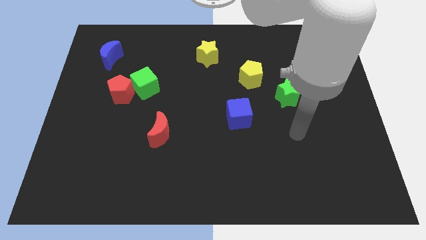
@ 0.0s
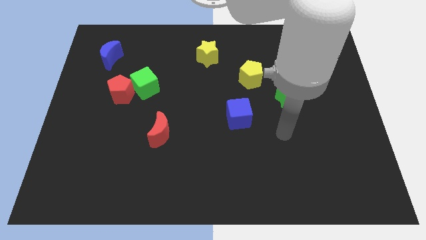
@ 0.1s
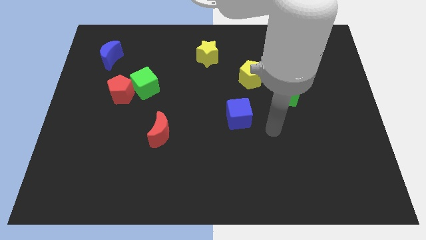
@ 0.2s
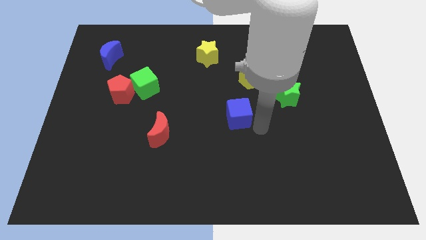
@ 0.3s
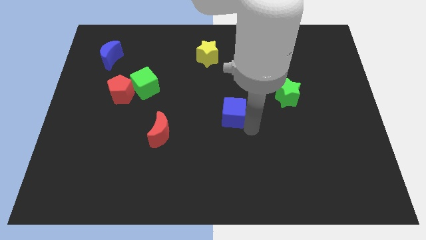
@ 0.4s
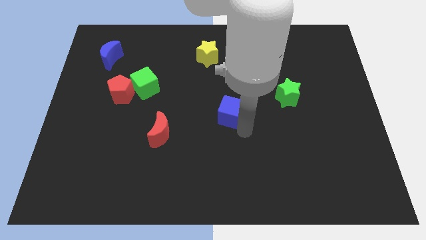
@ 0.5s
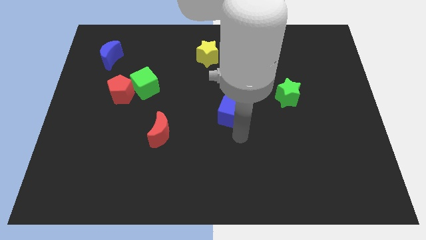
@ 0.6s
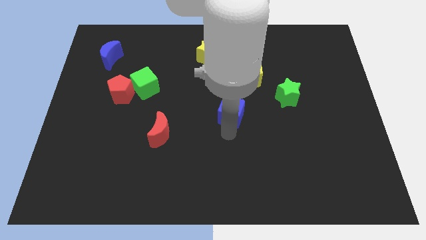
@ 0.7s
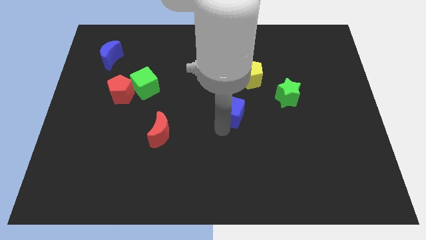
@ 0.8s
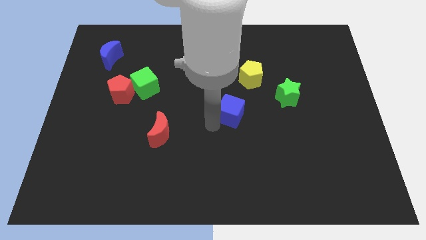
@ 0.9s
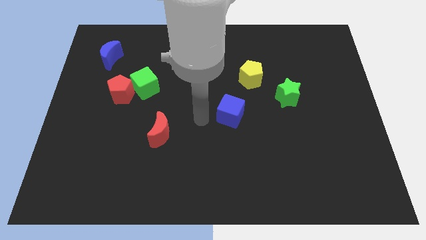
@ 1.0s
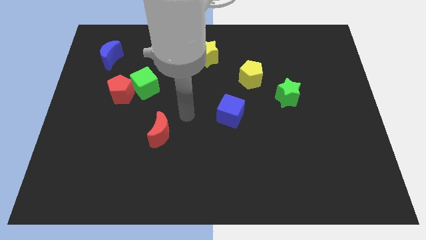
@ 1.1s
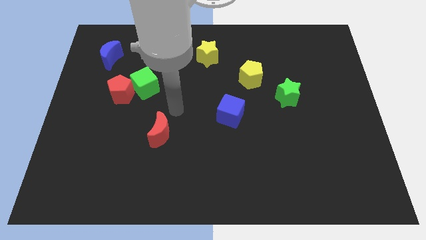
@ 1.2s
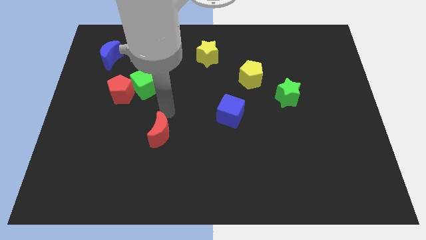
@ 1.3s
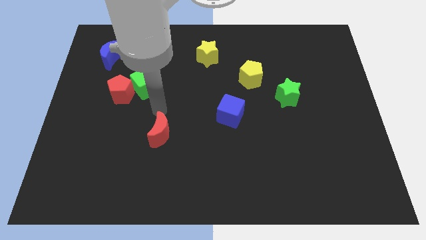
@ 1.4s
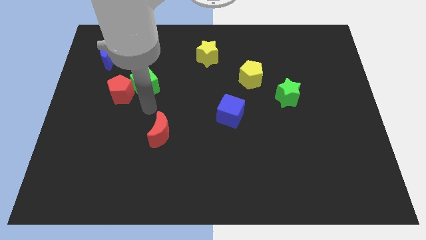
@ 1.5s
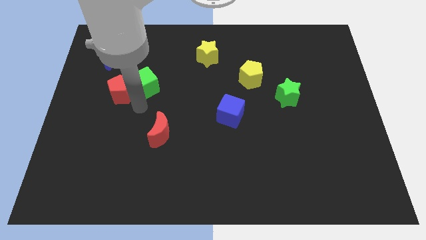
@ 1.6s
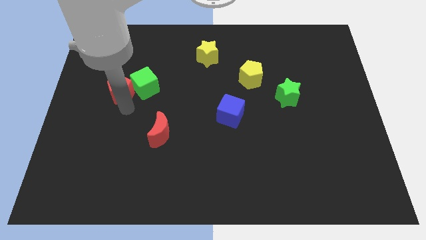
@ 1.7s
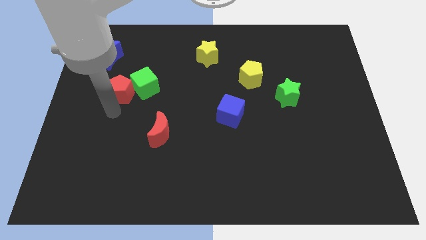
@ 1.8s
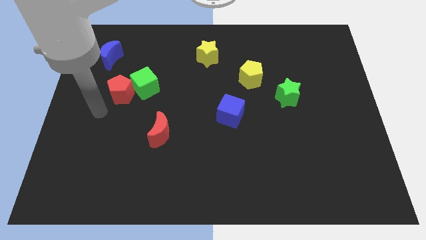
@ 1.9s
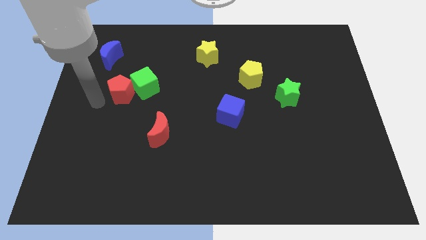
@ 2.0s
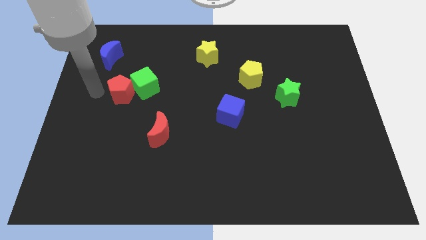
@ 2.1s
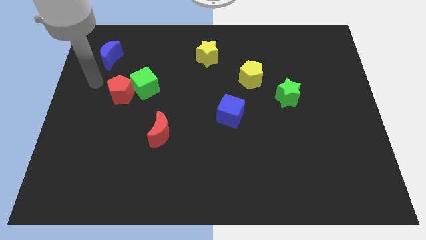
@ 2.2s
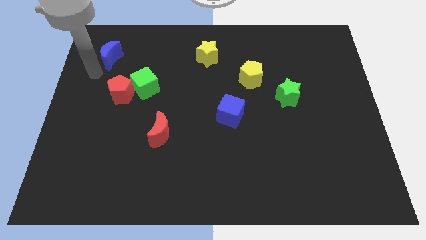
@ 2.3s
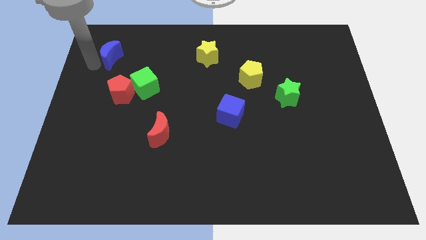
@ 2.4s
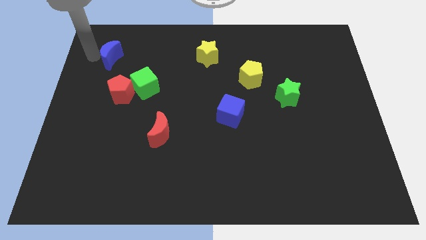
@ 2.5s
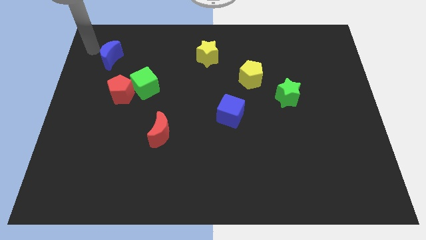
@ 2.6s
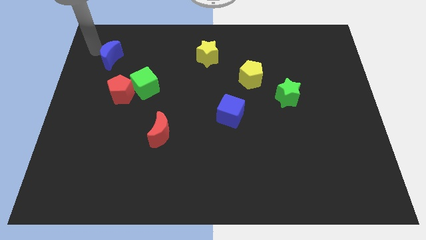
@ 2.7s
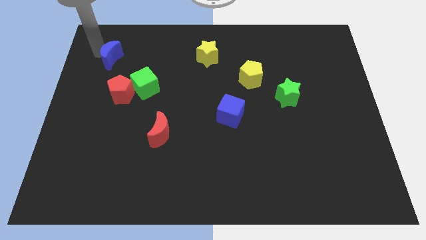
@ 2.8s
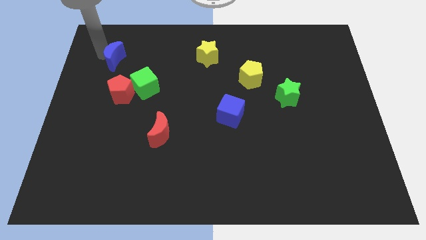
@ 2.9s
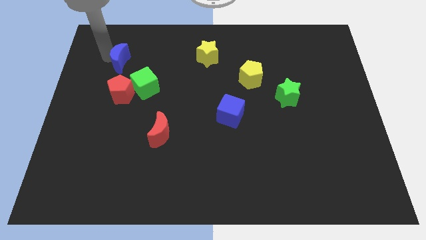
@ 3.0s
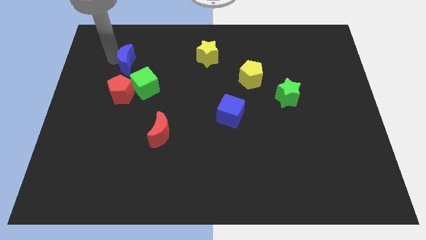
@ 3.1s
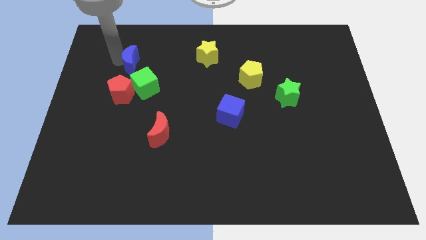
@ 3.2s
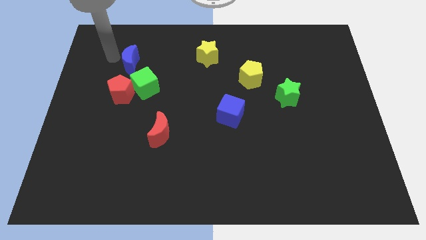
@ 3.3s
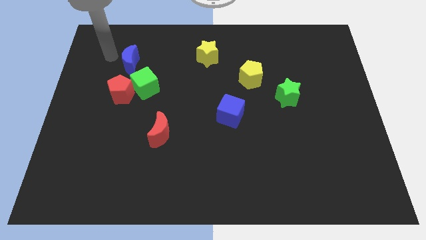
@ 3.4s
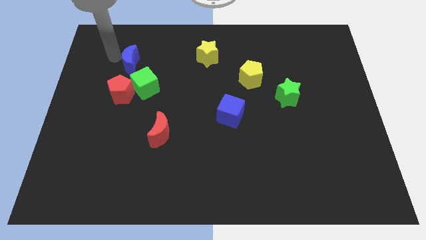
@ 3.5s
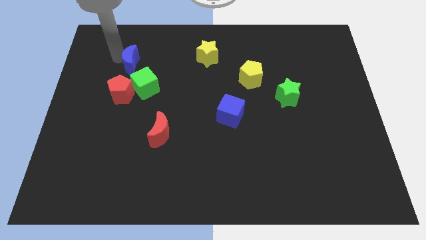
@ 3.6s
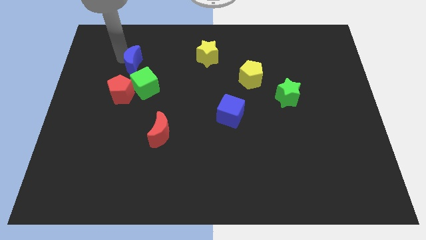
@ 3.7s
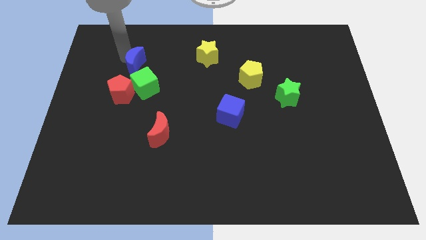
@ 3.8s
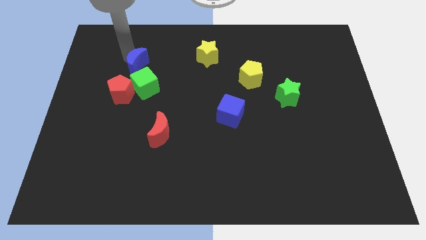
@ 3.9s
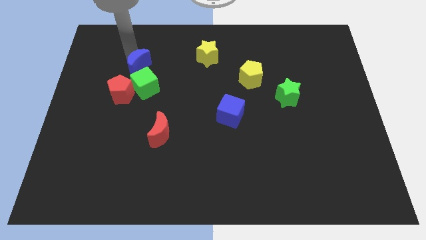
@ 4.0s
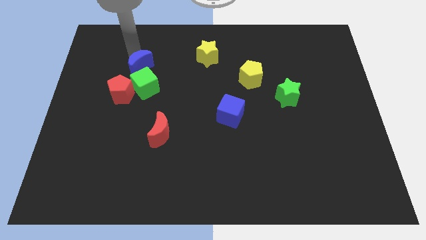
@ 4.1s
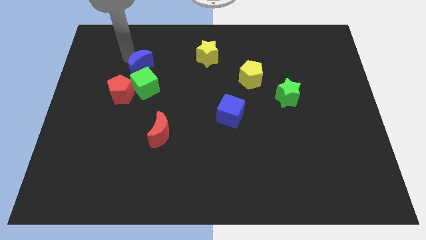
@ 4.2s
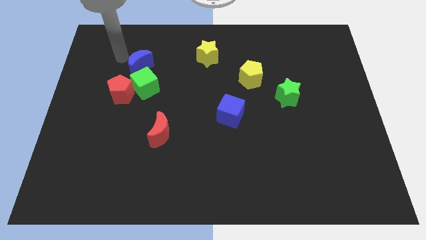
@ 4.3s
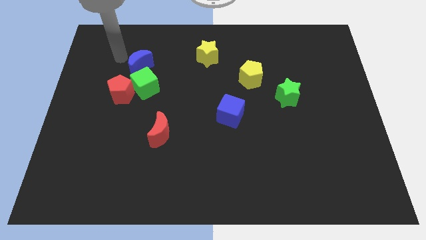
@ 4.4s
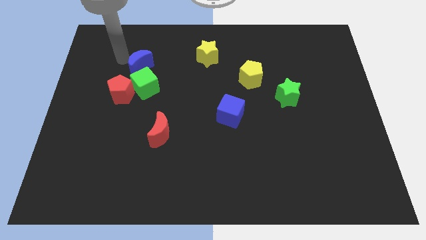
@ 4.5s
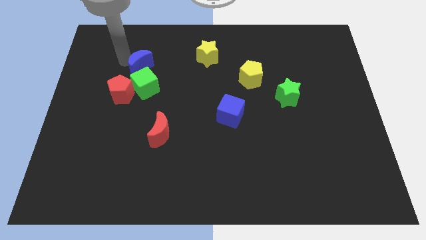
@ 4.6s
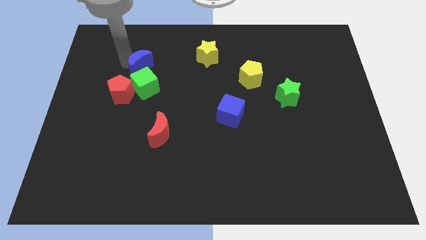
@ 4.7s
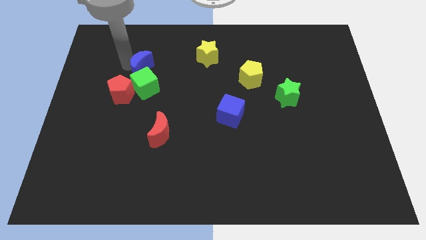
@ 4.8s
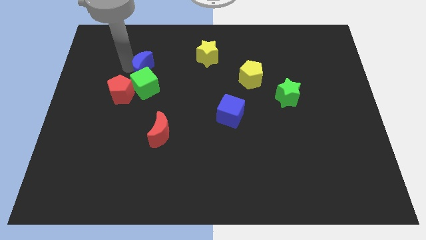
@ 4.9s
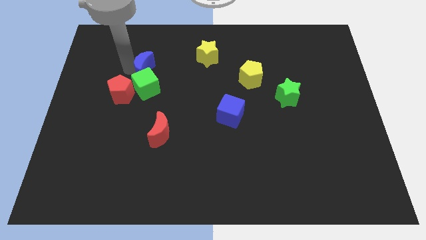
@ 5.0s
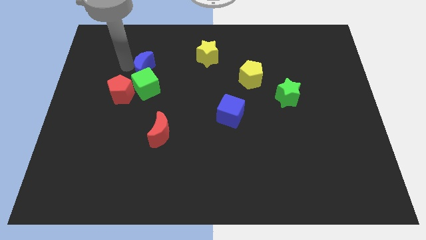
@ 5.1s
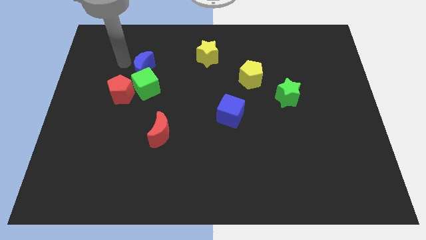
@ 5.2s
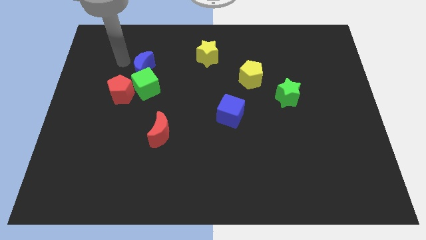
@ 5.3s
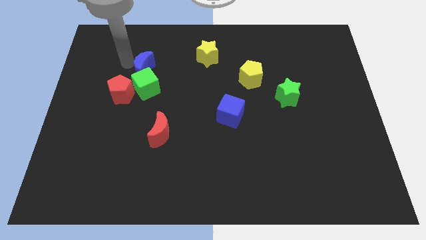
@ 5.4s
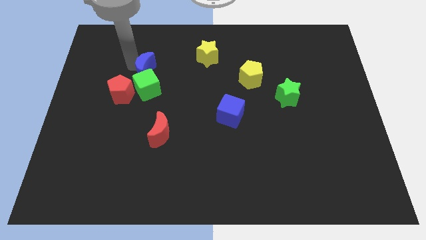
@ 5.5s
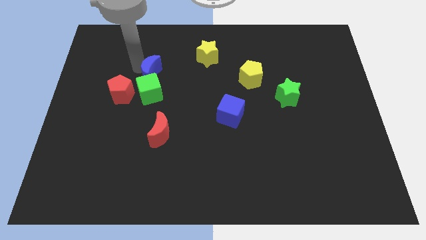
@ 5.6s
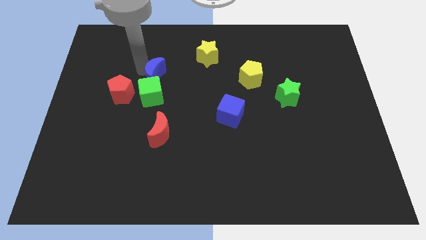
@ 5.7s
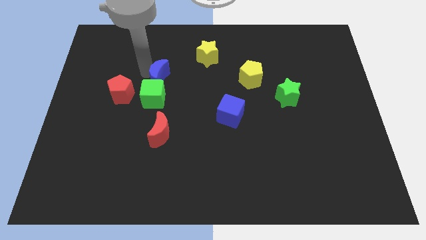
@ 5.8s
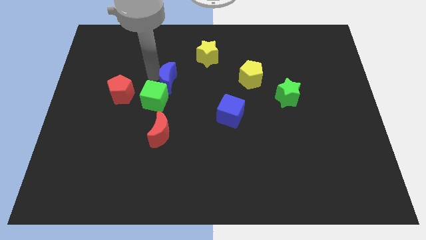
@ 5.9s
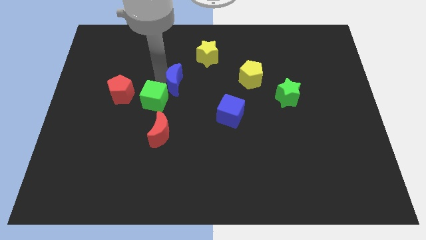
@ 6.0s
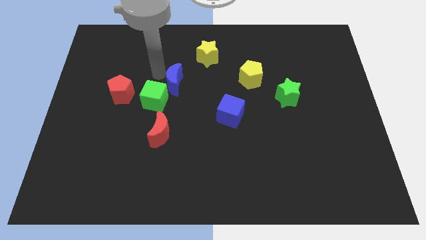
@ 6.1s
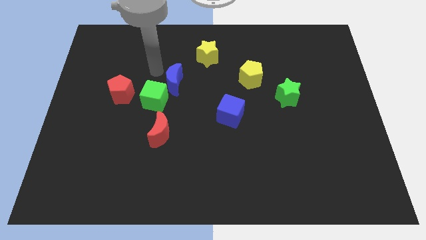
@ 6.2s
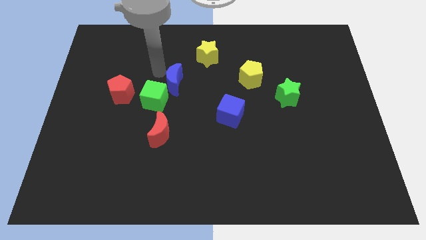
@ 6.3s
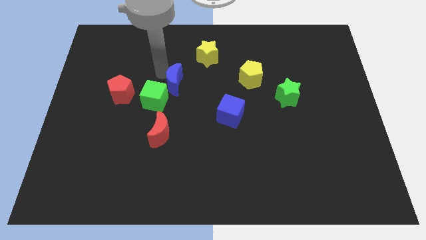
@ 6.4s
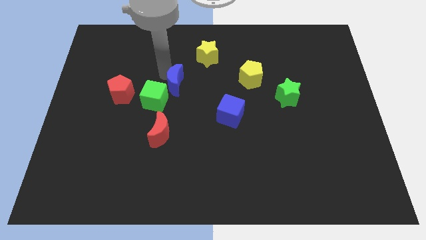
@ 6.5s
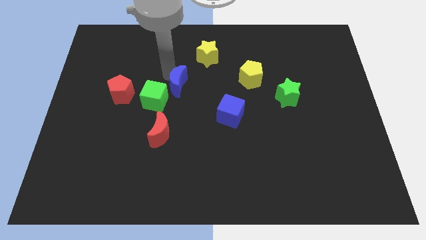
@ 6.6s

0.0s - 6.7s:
put the blue moon just right of the green cube

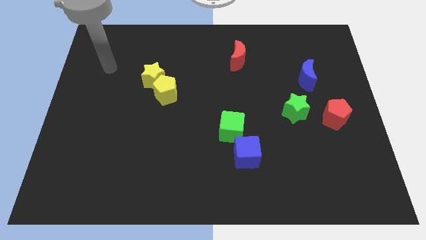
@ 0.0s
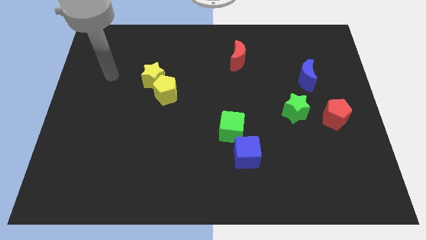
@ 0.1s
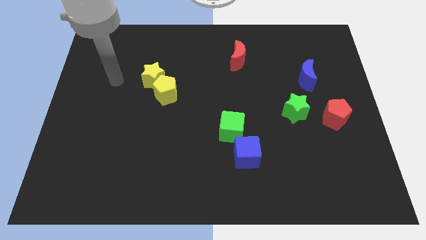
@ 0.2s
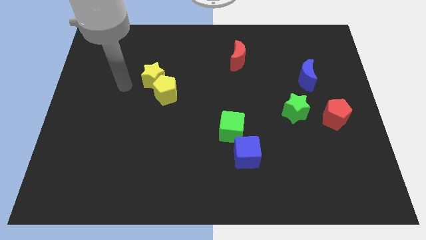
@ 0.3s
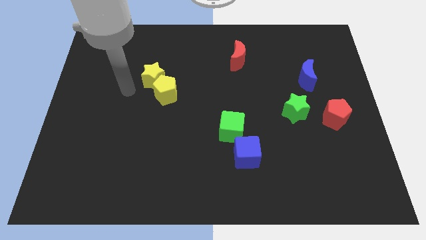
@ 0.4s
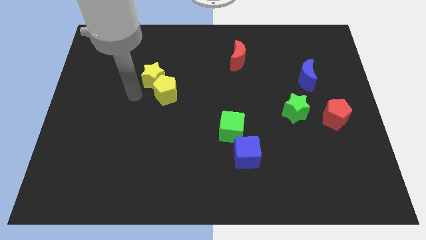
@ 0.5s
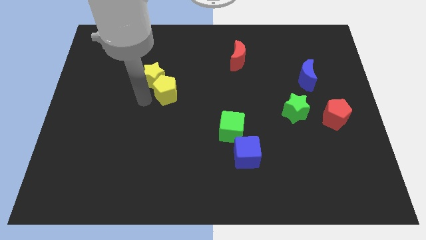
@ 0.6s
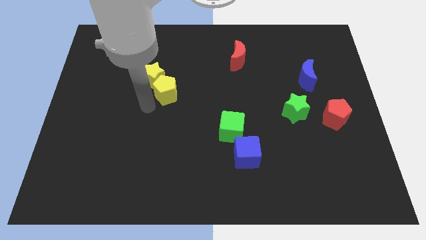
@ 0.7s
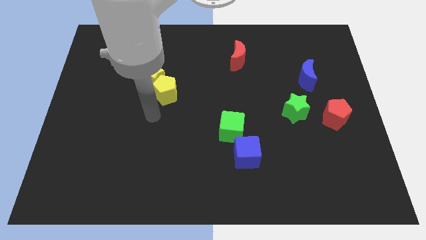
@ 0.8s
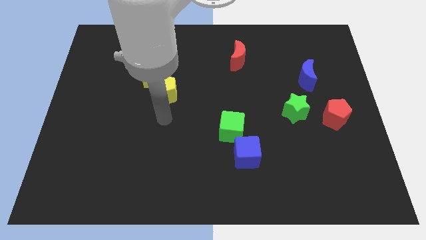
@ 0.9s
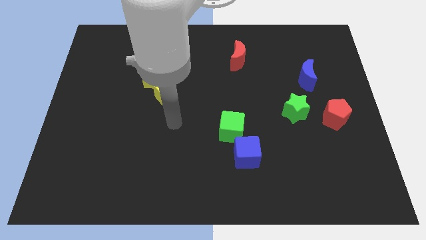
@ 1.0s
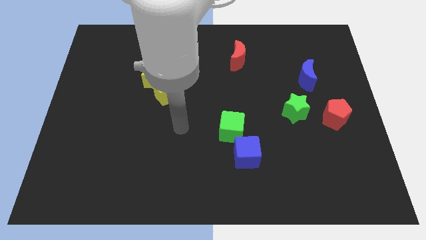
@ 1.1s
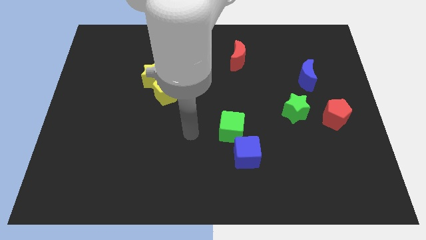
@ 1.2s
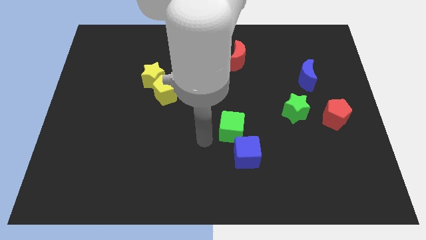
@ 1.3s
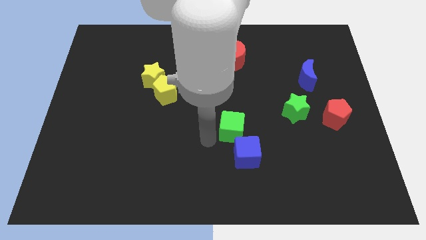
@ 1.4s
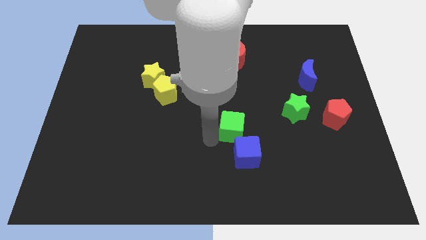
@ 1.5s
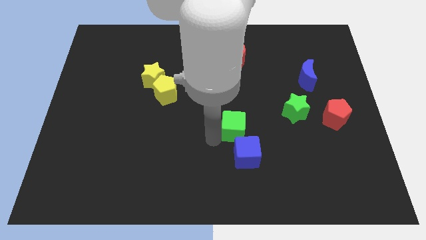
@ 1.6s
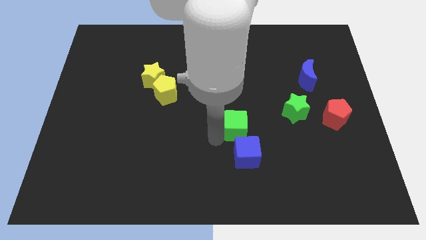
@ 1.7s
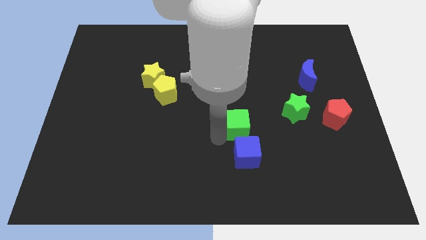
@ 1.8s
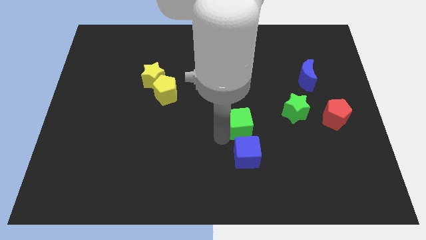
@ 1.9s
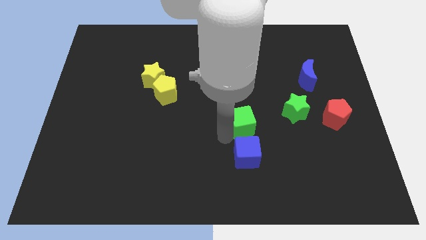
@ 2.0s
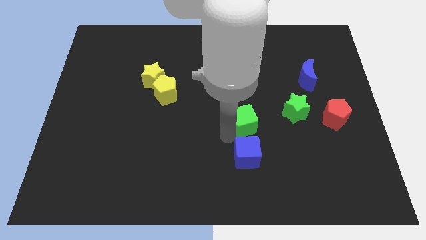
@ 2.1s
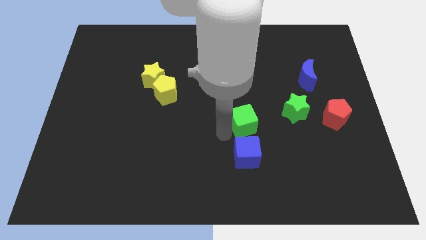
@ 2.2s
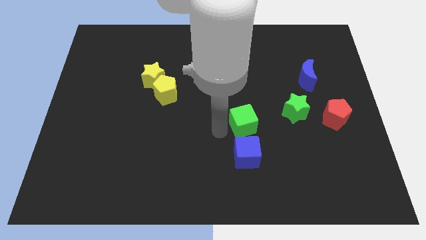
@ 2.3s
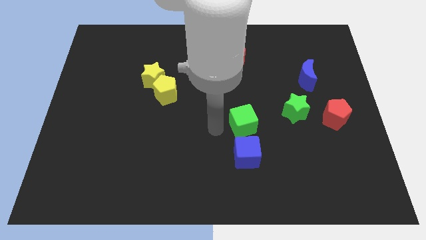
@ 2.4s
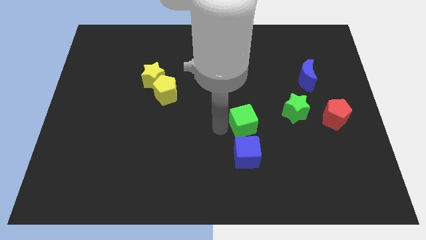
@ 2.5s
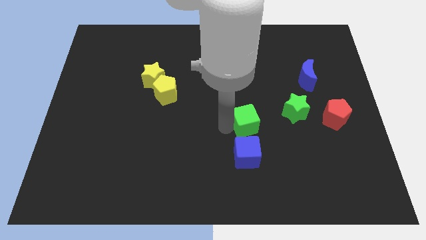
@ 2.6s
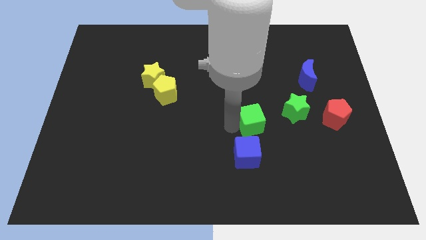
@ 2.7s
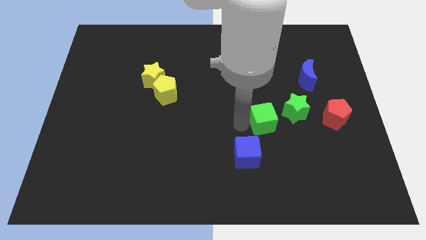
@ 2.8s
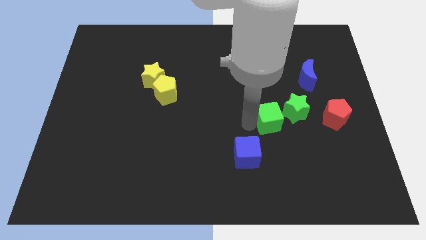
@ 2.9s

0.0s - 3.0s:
push the green cube just left of the red pentagon
